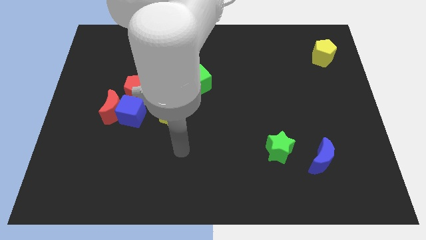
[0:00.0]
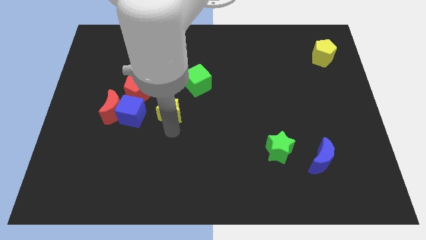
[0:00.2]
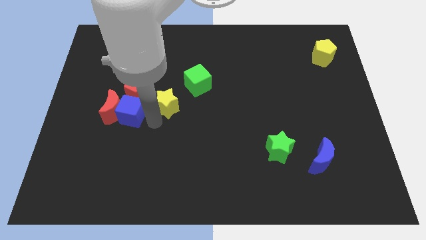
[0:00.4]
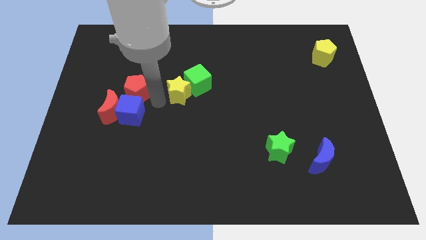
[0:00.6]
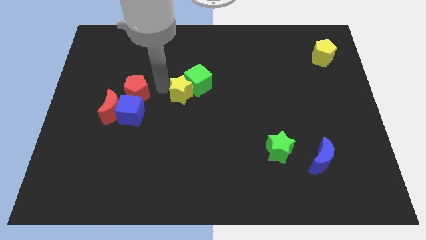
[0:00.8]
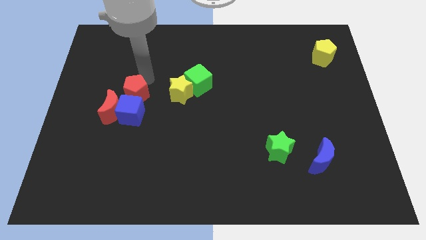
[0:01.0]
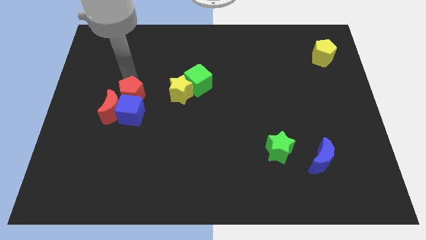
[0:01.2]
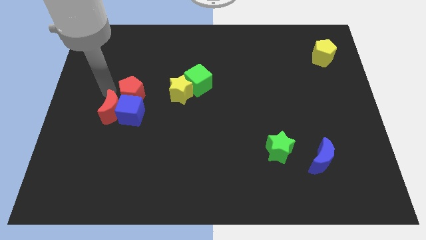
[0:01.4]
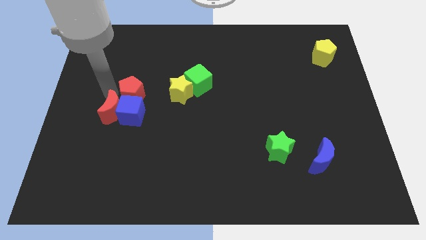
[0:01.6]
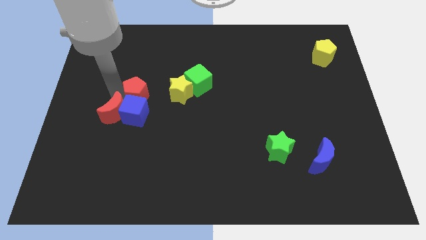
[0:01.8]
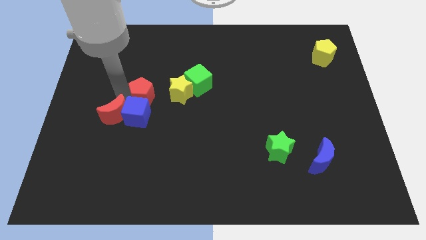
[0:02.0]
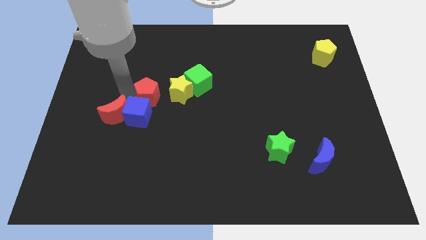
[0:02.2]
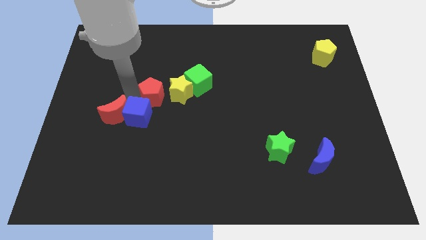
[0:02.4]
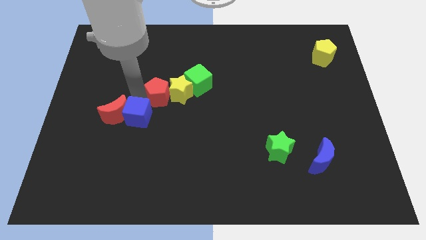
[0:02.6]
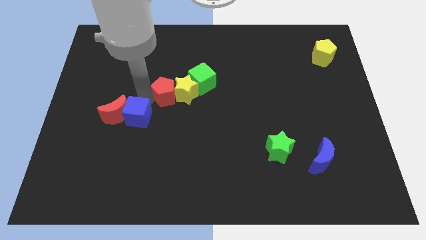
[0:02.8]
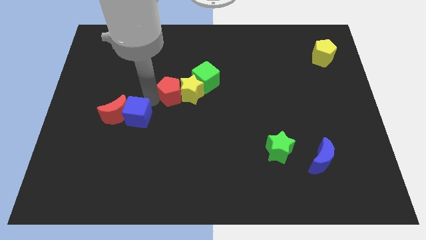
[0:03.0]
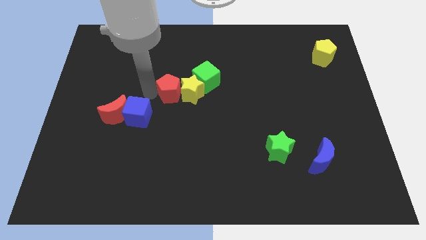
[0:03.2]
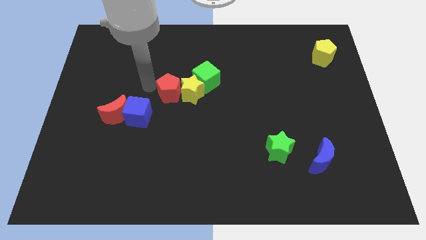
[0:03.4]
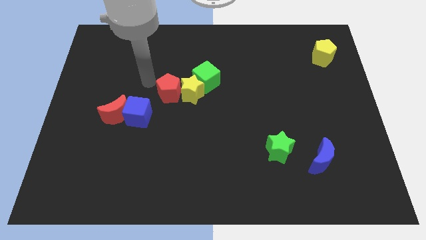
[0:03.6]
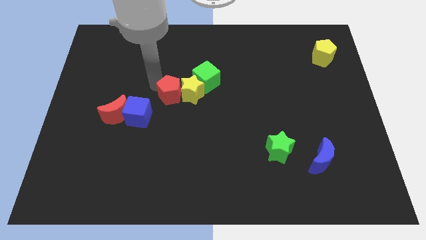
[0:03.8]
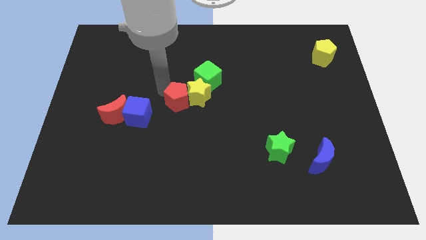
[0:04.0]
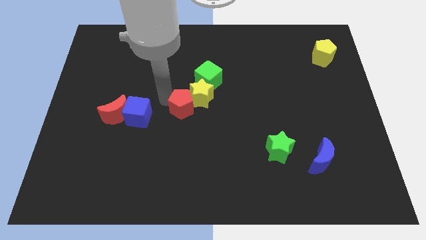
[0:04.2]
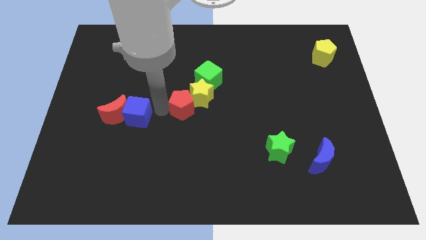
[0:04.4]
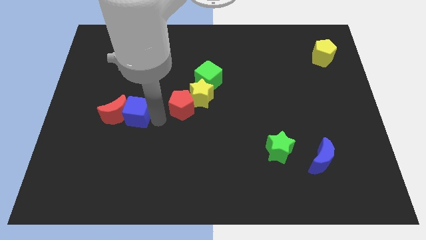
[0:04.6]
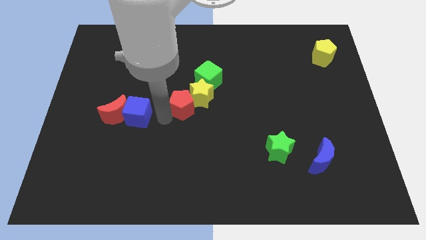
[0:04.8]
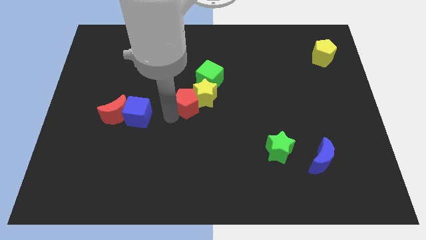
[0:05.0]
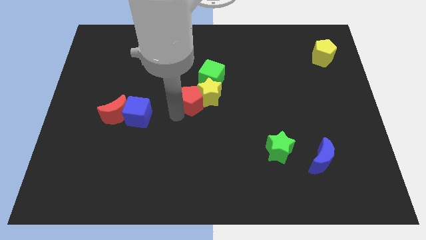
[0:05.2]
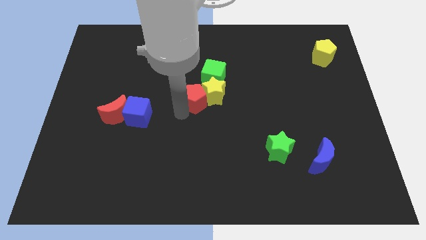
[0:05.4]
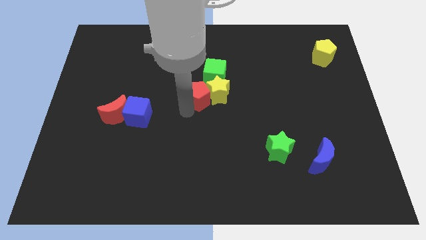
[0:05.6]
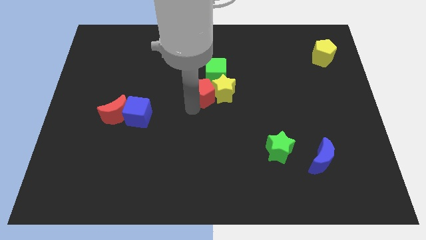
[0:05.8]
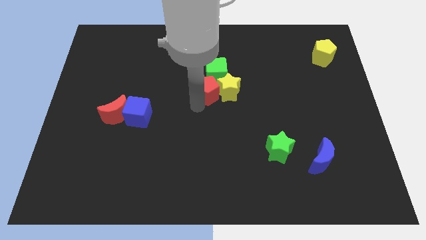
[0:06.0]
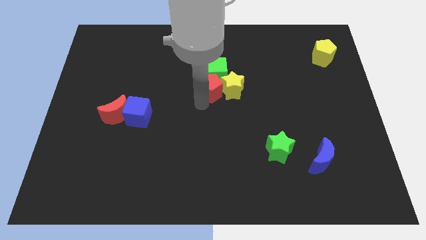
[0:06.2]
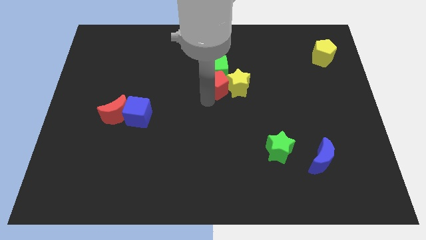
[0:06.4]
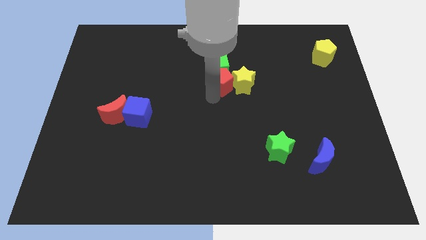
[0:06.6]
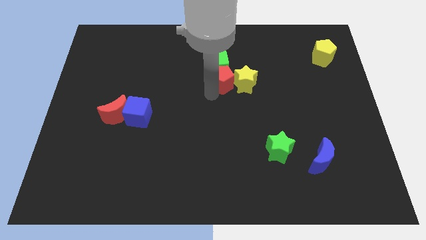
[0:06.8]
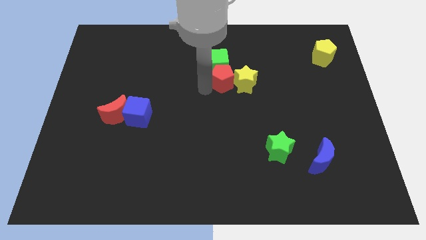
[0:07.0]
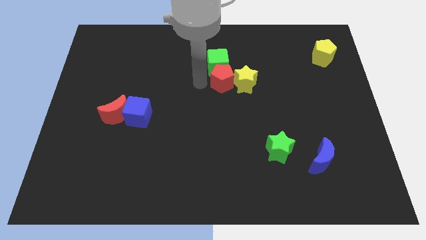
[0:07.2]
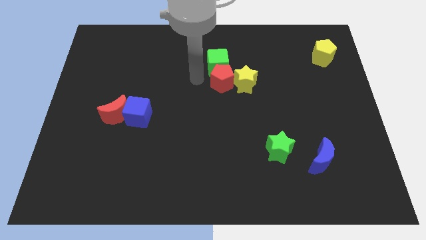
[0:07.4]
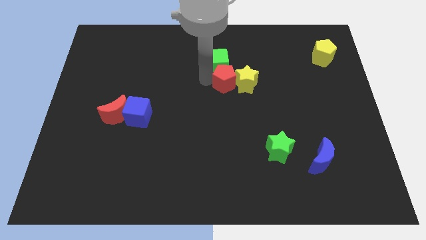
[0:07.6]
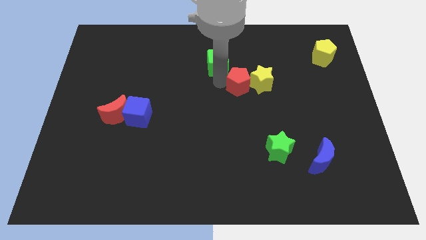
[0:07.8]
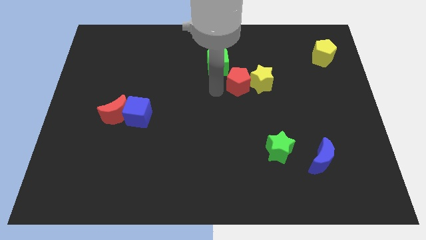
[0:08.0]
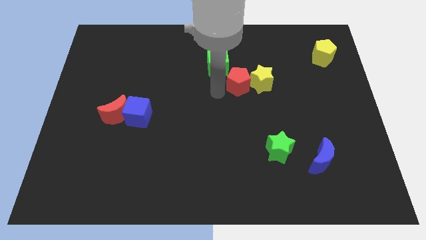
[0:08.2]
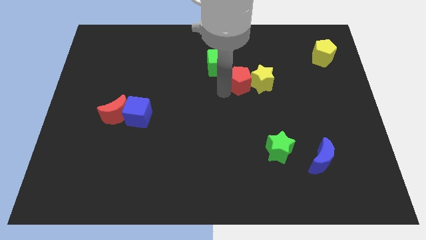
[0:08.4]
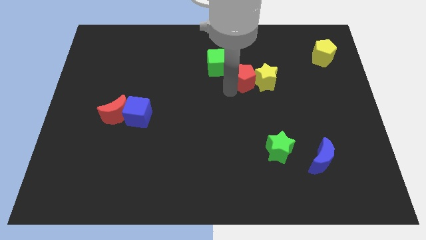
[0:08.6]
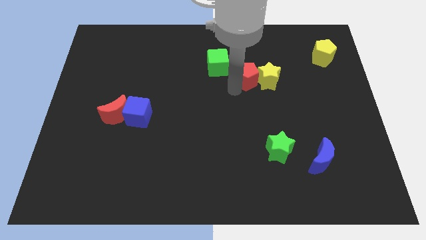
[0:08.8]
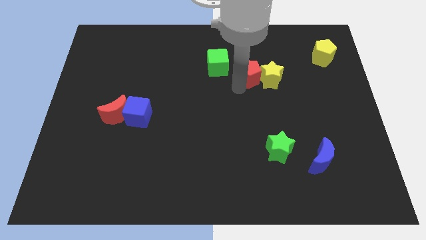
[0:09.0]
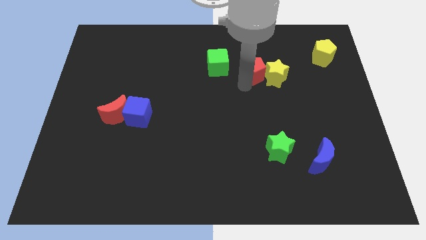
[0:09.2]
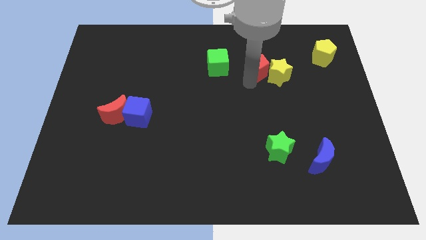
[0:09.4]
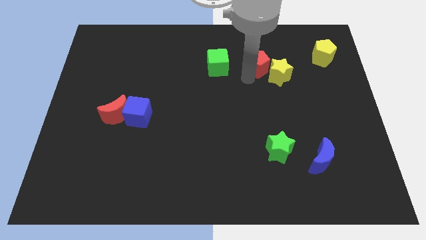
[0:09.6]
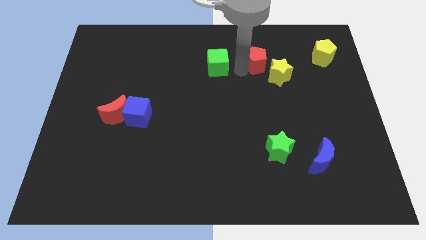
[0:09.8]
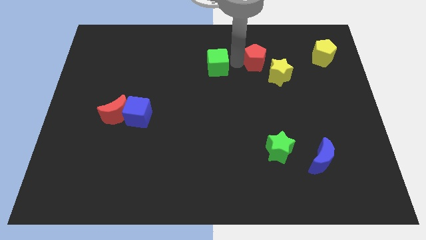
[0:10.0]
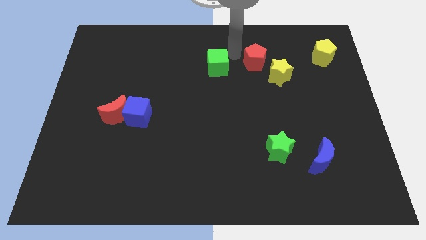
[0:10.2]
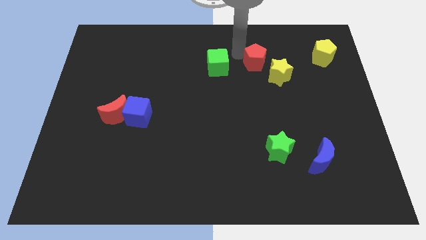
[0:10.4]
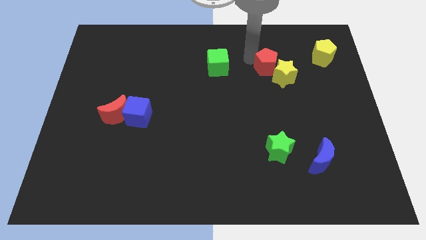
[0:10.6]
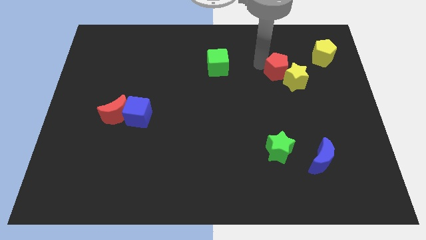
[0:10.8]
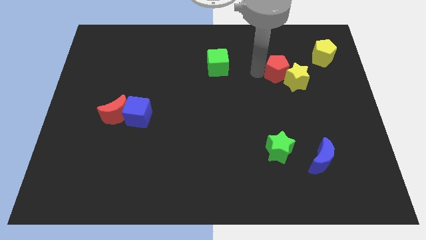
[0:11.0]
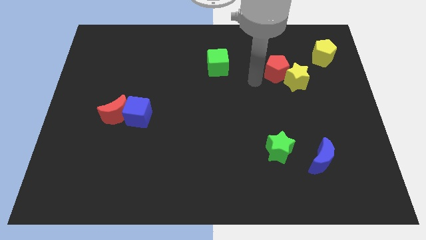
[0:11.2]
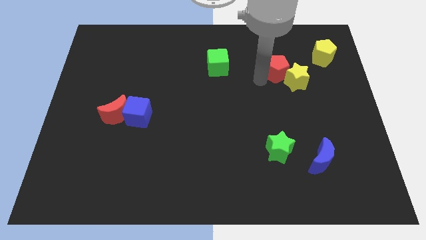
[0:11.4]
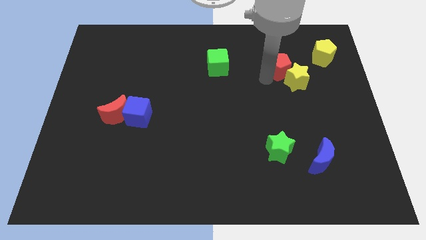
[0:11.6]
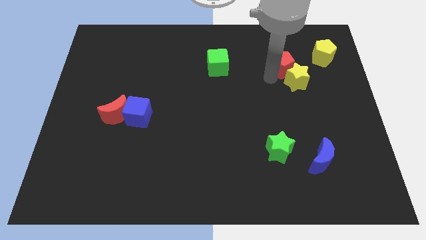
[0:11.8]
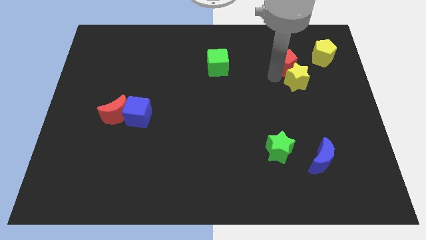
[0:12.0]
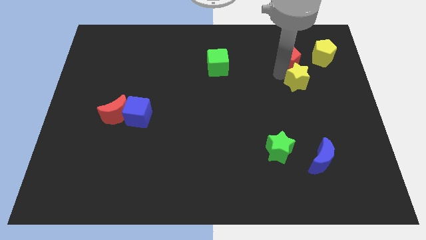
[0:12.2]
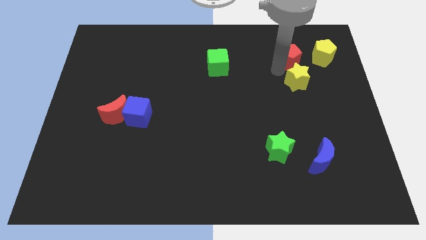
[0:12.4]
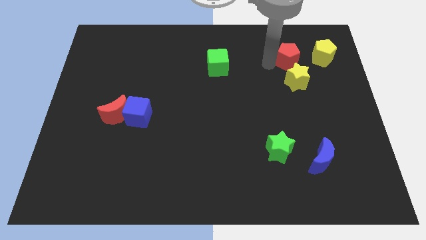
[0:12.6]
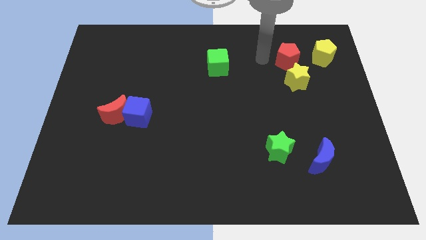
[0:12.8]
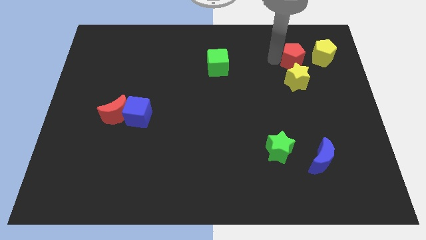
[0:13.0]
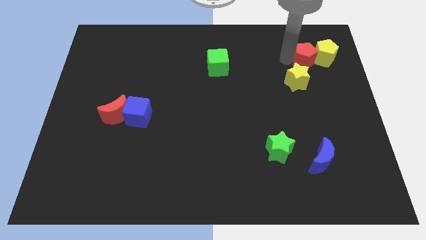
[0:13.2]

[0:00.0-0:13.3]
push the red pentagon next to the yellow pentagon

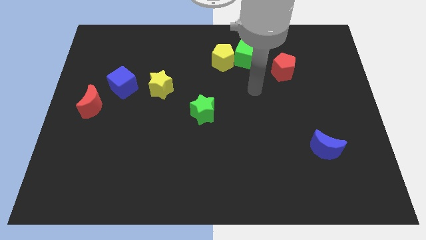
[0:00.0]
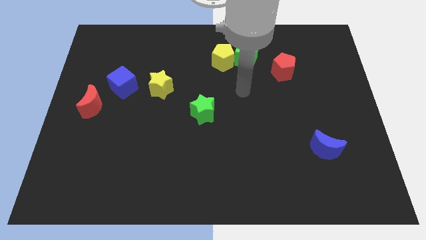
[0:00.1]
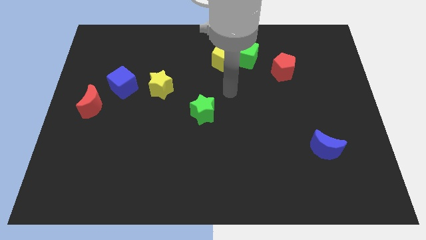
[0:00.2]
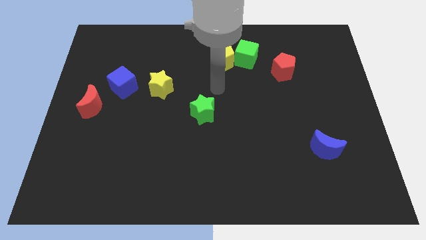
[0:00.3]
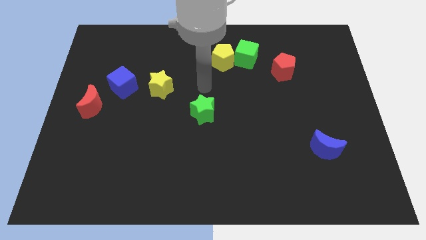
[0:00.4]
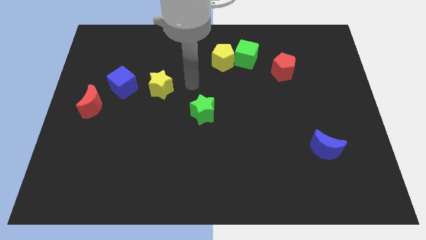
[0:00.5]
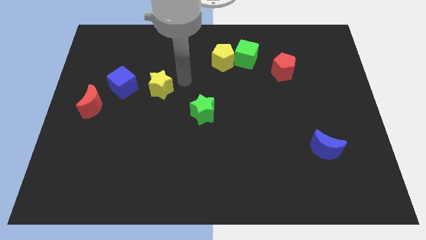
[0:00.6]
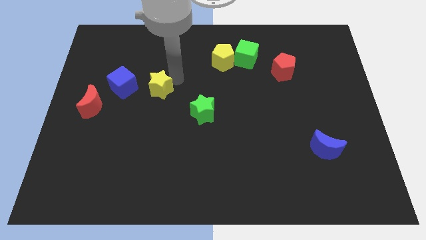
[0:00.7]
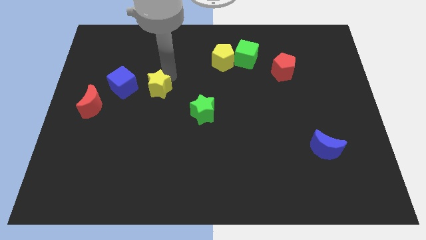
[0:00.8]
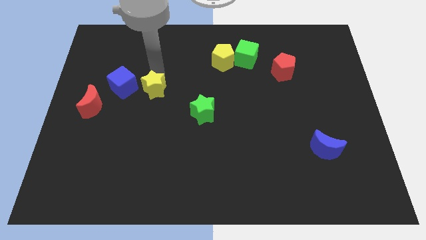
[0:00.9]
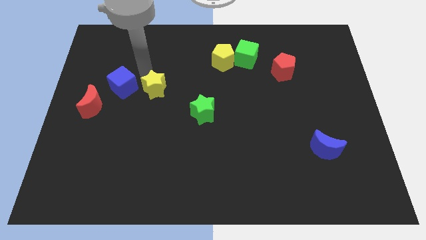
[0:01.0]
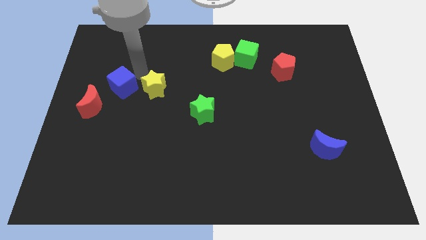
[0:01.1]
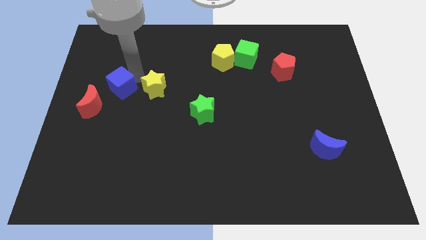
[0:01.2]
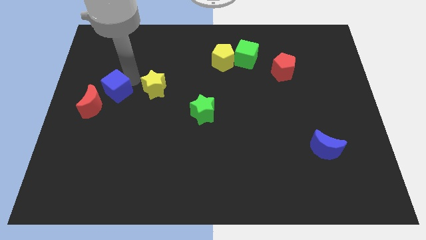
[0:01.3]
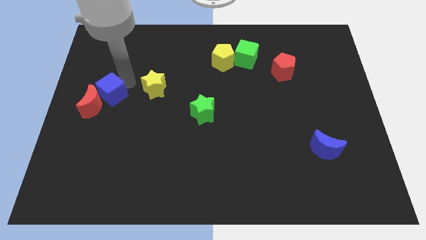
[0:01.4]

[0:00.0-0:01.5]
push the blue cube towards the red moon
